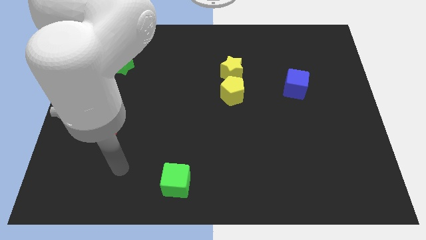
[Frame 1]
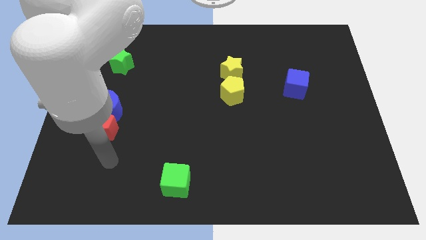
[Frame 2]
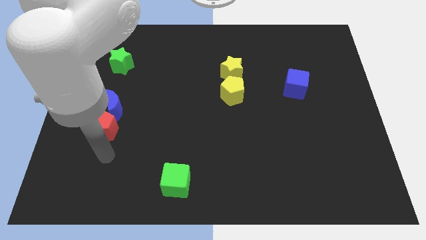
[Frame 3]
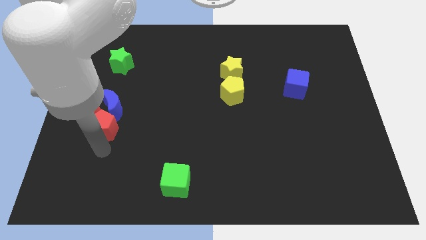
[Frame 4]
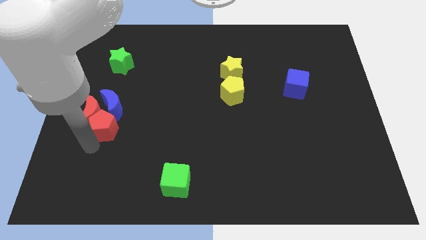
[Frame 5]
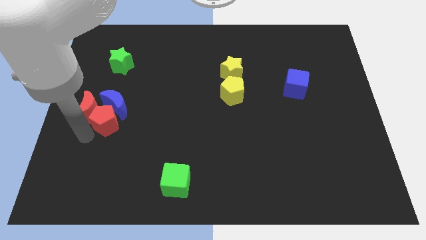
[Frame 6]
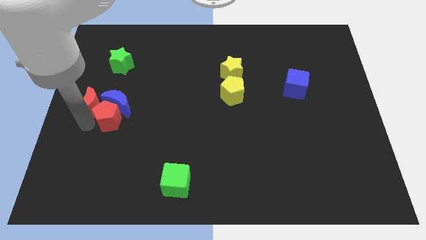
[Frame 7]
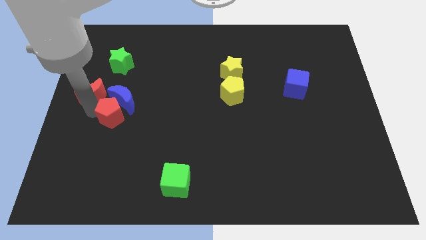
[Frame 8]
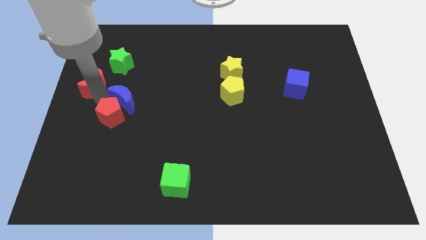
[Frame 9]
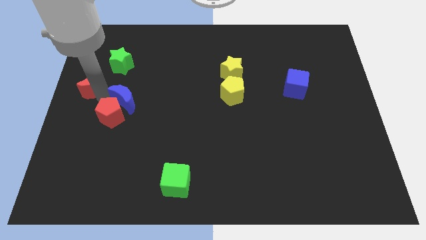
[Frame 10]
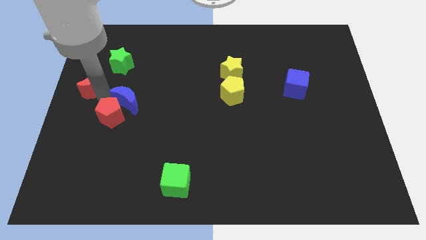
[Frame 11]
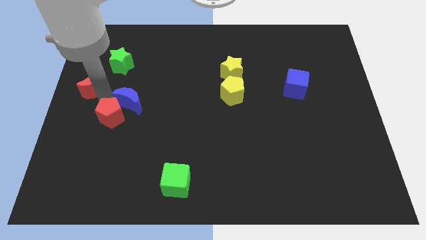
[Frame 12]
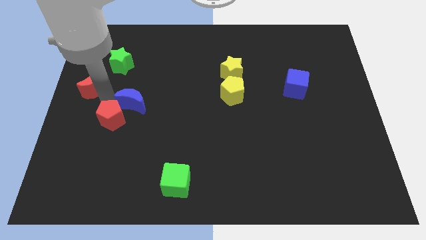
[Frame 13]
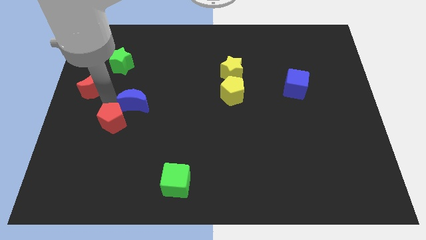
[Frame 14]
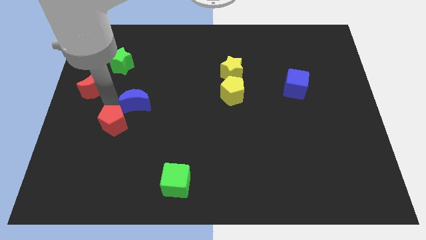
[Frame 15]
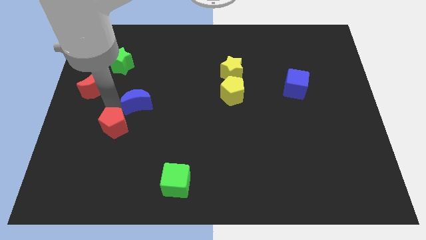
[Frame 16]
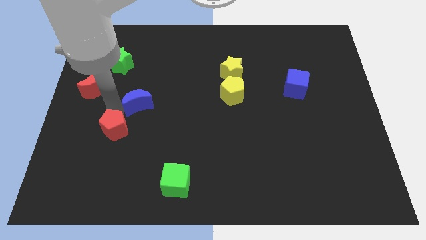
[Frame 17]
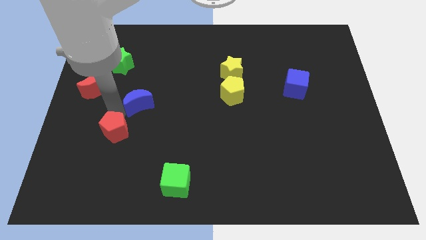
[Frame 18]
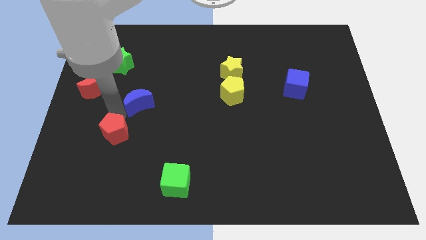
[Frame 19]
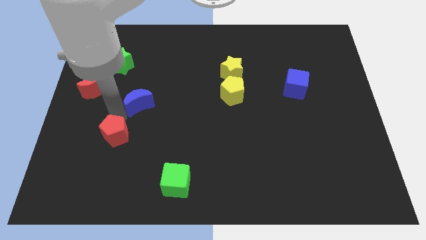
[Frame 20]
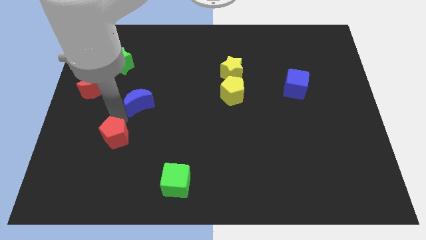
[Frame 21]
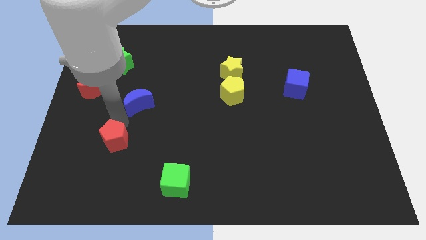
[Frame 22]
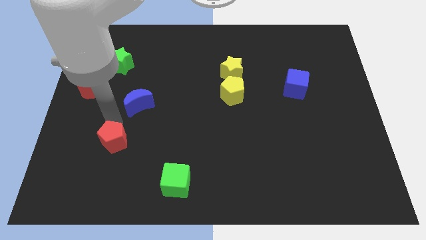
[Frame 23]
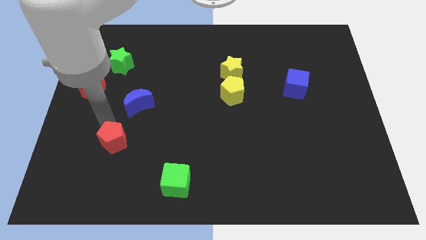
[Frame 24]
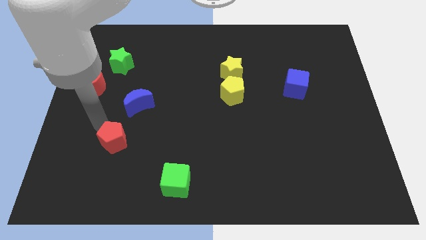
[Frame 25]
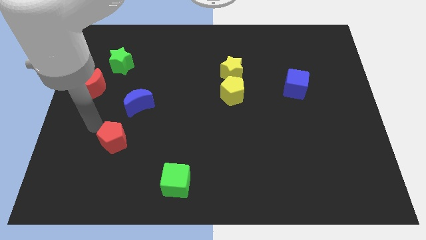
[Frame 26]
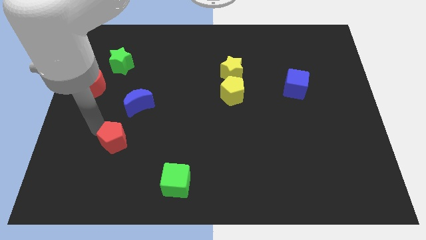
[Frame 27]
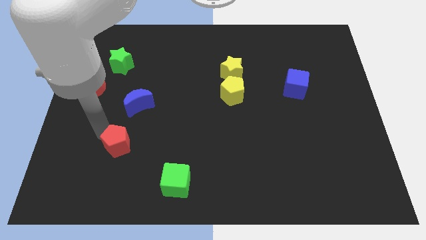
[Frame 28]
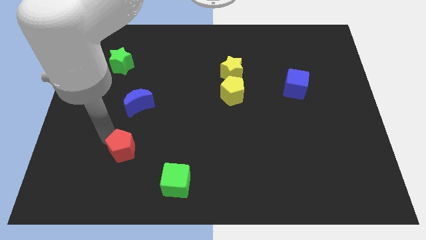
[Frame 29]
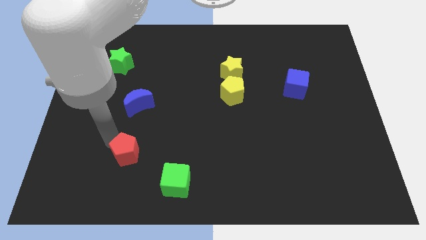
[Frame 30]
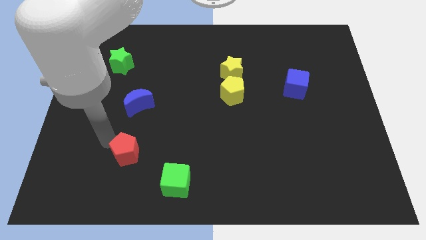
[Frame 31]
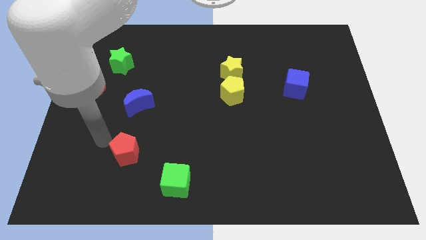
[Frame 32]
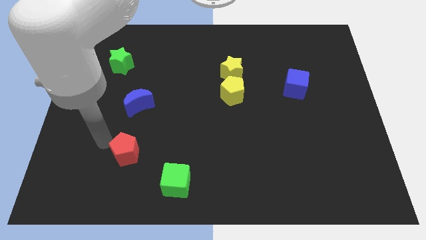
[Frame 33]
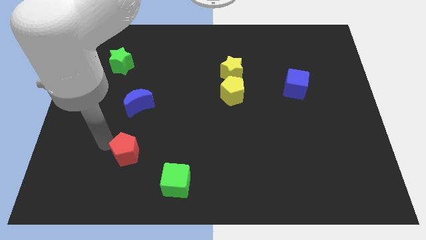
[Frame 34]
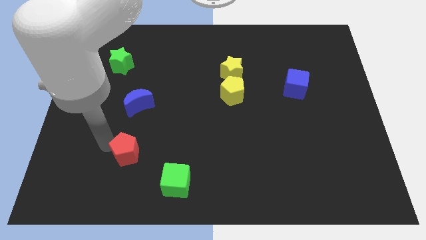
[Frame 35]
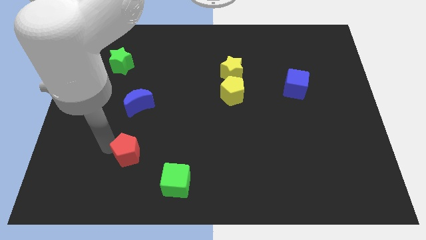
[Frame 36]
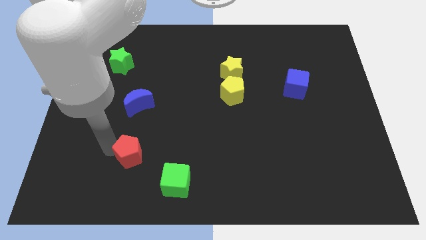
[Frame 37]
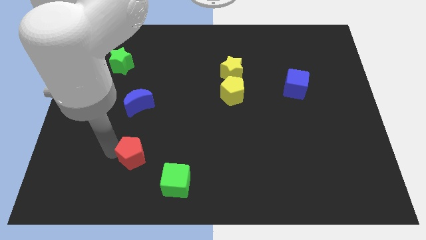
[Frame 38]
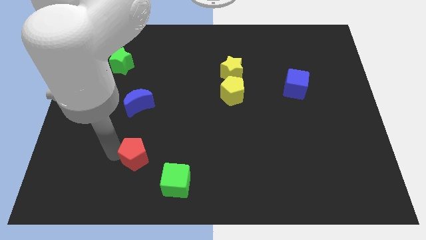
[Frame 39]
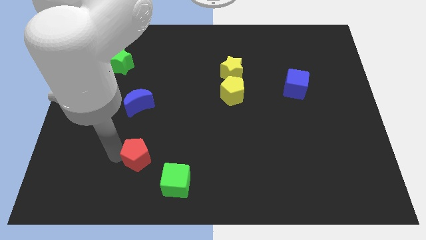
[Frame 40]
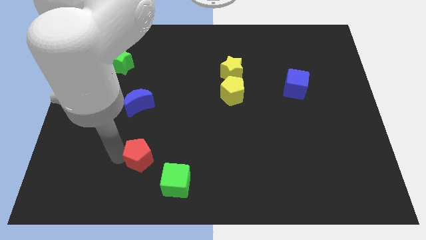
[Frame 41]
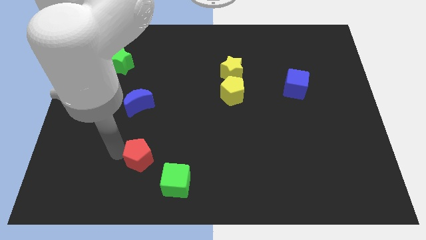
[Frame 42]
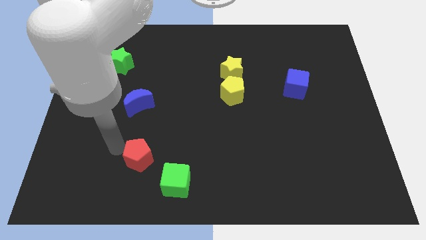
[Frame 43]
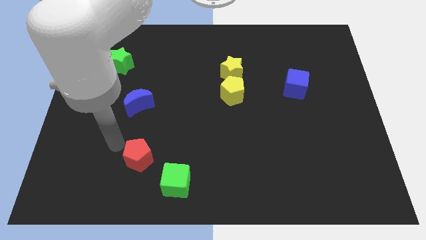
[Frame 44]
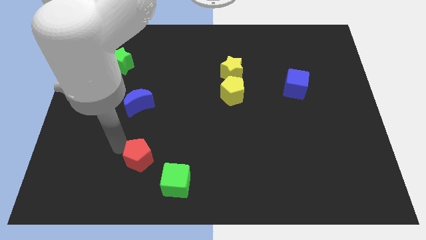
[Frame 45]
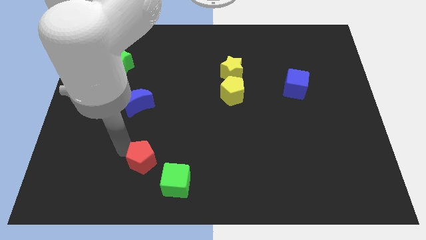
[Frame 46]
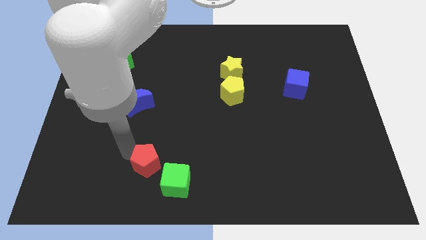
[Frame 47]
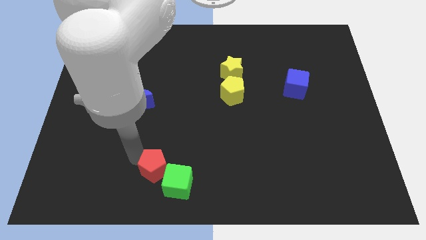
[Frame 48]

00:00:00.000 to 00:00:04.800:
put the red pentagon to the green cube

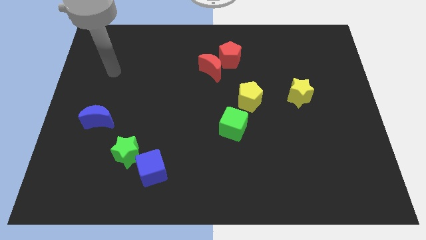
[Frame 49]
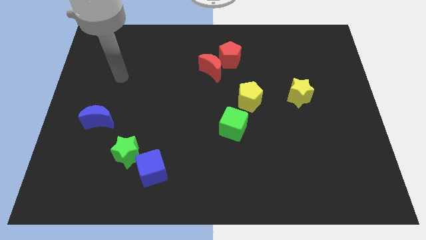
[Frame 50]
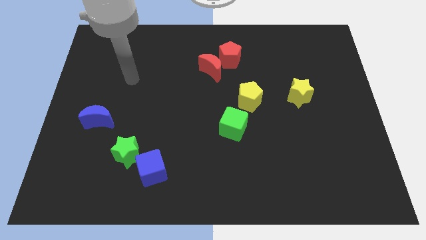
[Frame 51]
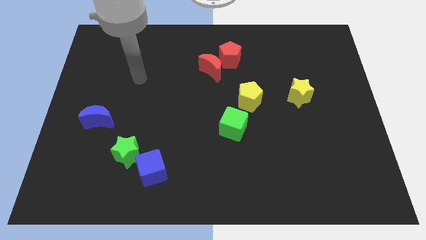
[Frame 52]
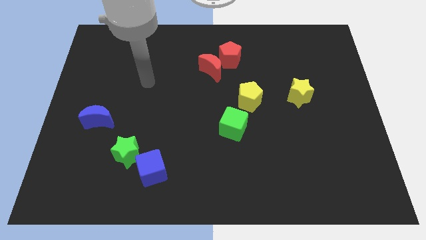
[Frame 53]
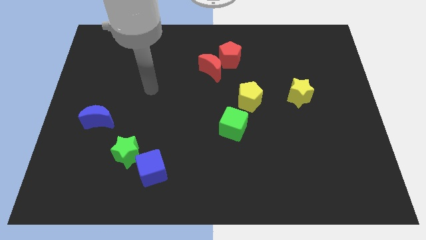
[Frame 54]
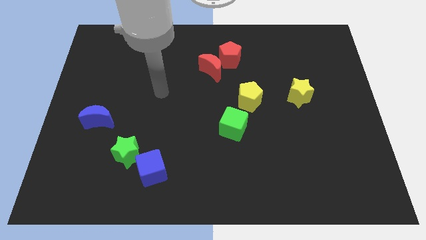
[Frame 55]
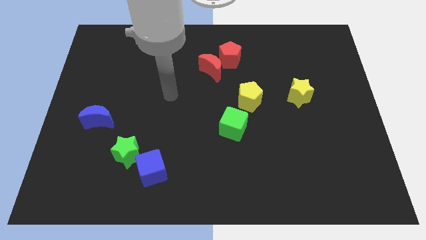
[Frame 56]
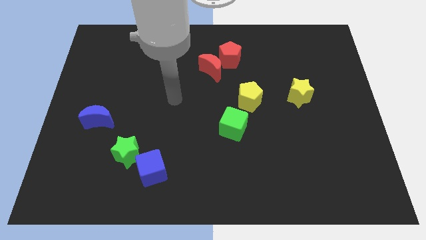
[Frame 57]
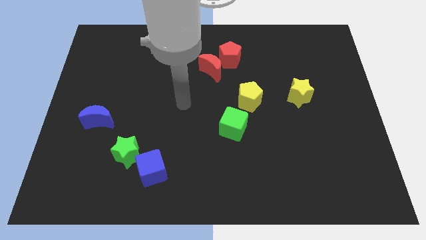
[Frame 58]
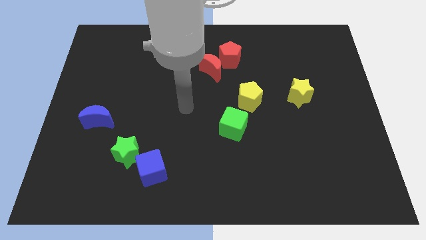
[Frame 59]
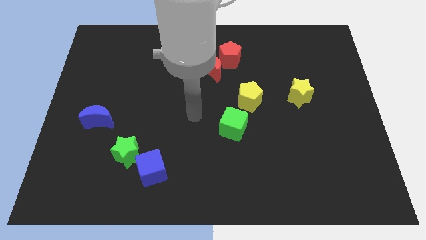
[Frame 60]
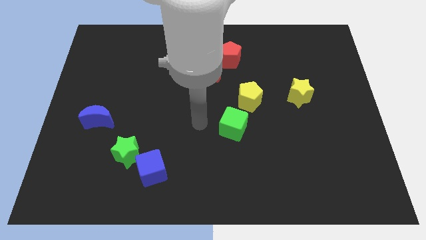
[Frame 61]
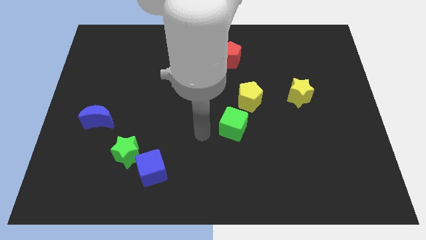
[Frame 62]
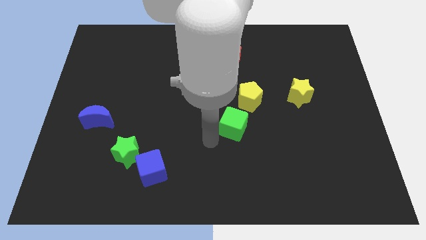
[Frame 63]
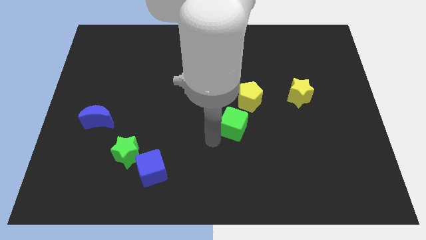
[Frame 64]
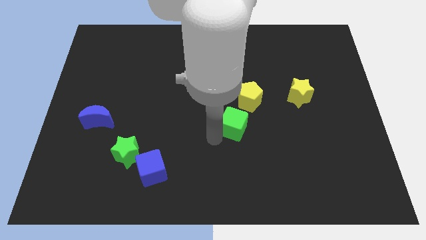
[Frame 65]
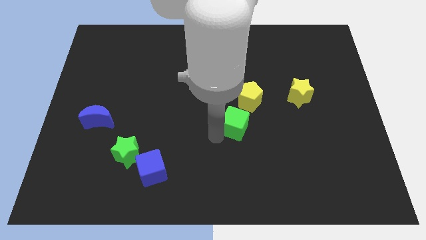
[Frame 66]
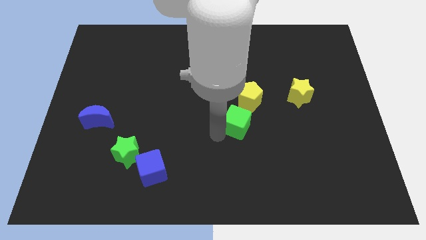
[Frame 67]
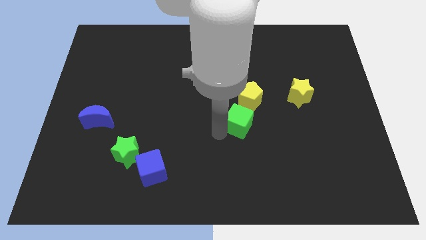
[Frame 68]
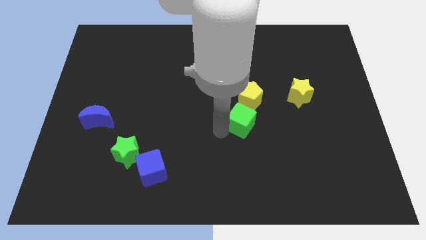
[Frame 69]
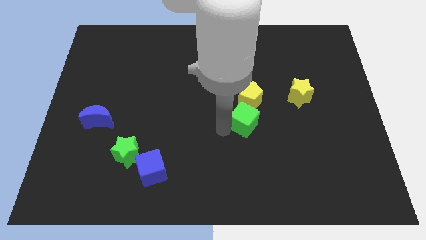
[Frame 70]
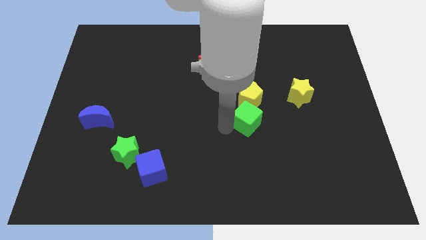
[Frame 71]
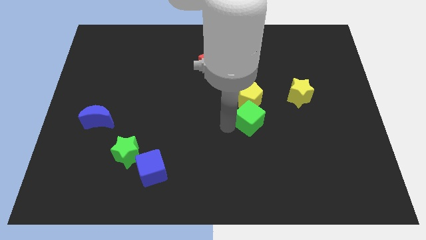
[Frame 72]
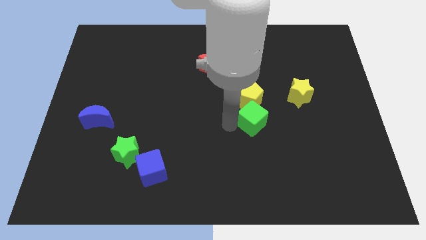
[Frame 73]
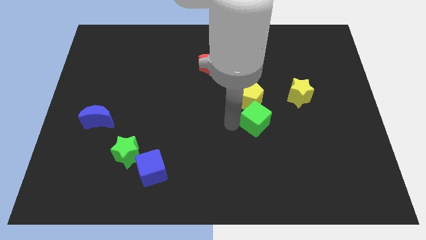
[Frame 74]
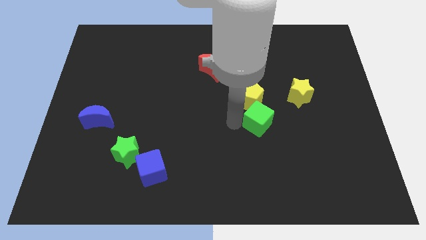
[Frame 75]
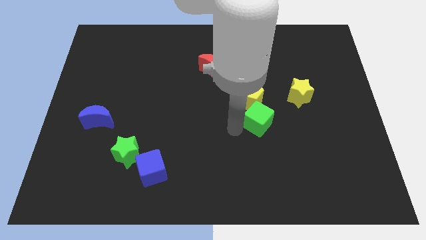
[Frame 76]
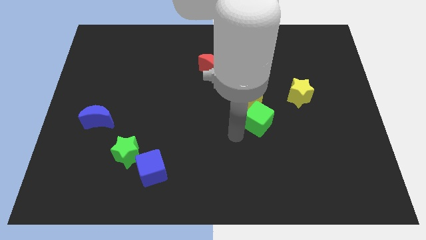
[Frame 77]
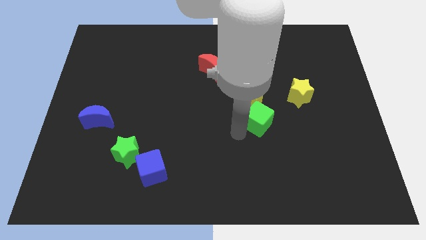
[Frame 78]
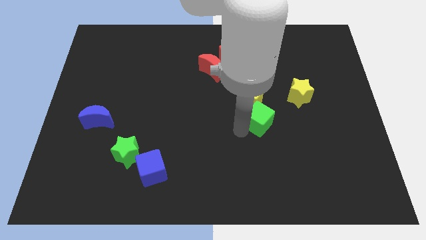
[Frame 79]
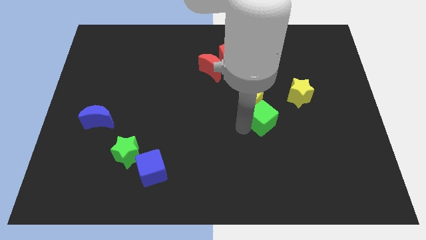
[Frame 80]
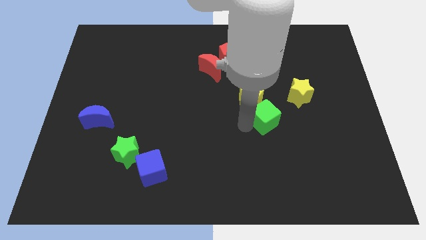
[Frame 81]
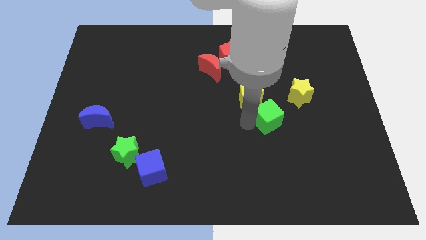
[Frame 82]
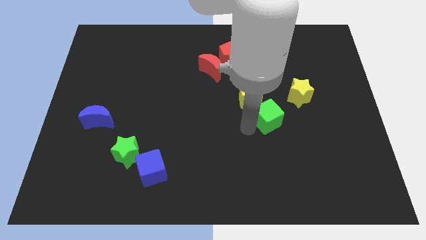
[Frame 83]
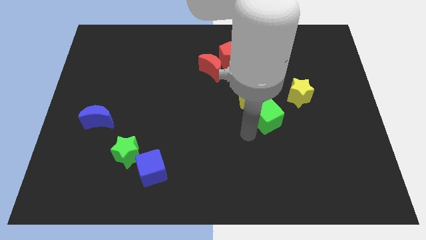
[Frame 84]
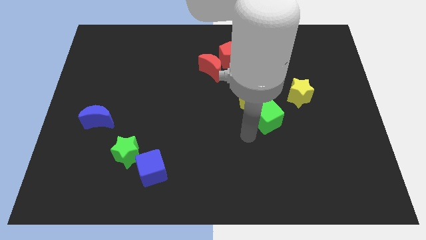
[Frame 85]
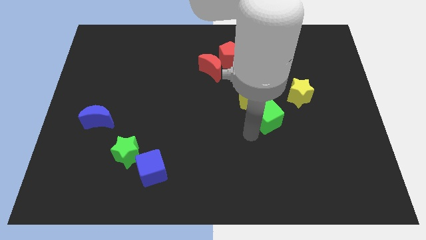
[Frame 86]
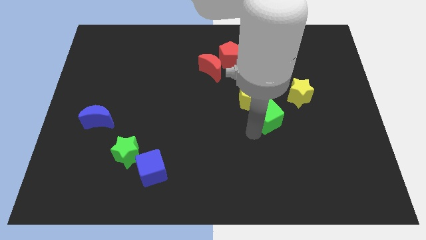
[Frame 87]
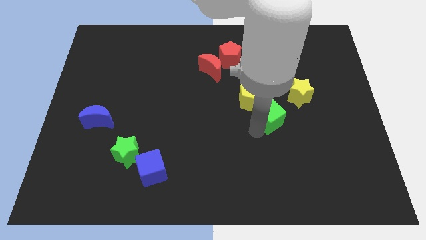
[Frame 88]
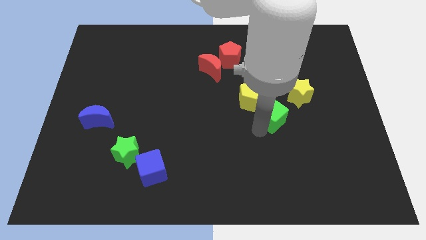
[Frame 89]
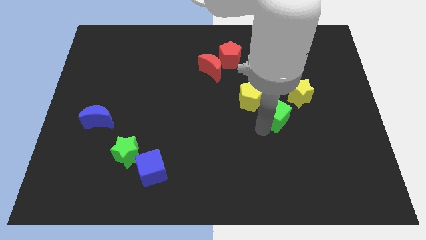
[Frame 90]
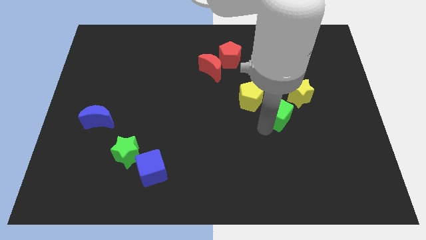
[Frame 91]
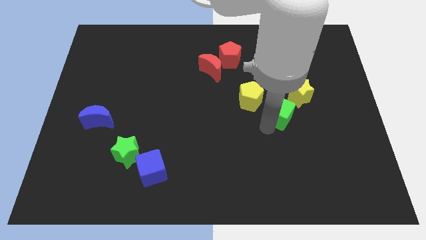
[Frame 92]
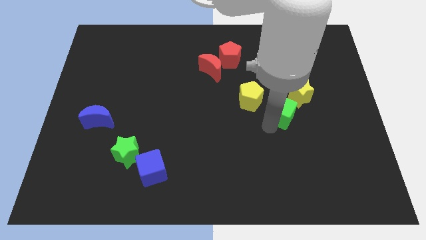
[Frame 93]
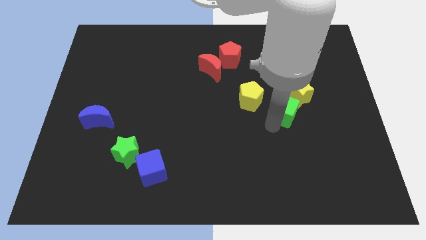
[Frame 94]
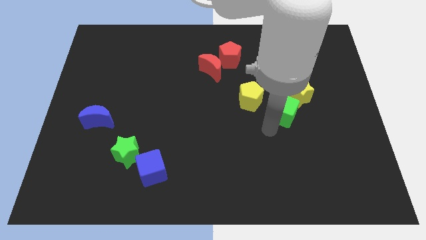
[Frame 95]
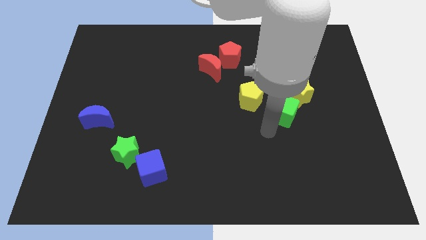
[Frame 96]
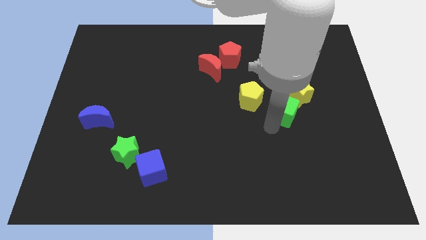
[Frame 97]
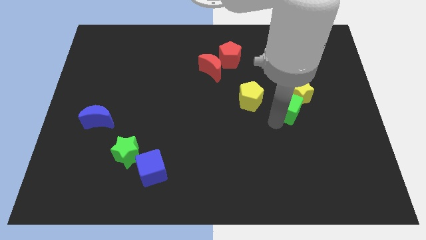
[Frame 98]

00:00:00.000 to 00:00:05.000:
put the green cube close to the yellow star
